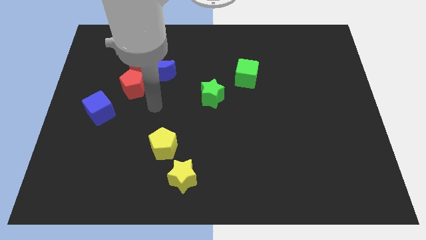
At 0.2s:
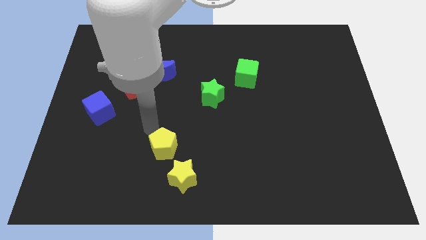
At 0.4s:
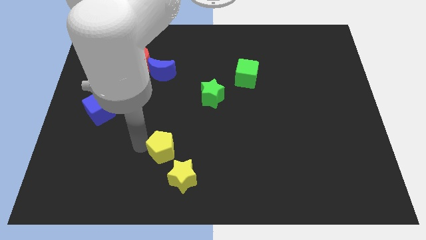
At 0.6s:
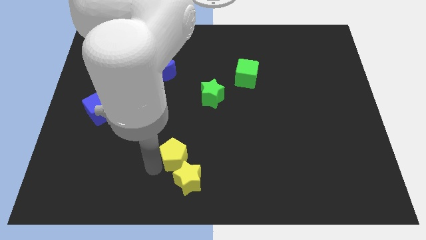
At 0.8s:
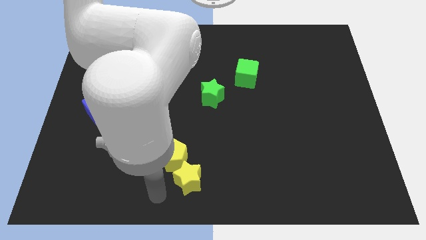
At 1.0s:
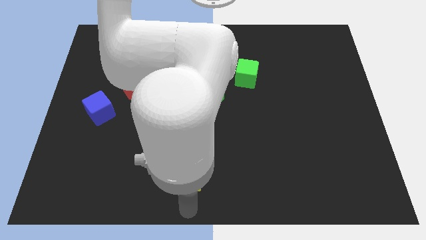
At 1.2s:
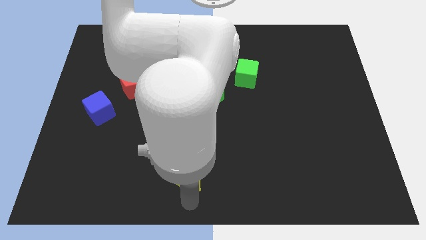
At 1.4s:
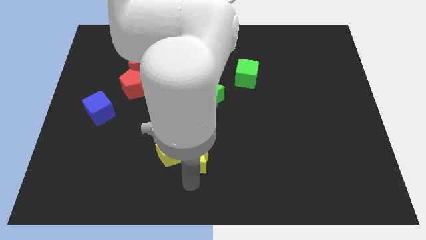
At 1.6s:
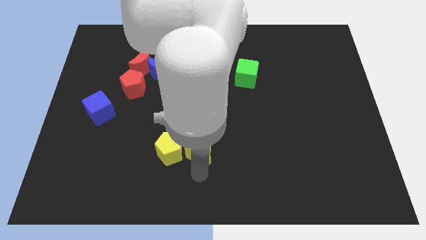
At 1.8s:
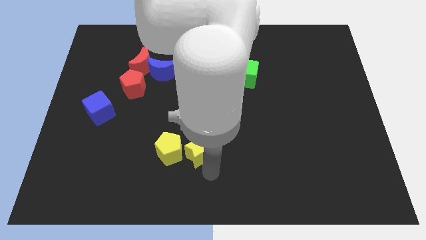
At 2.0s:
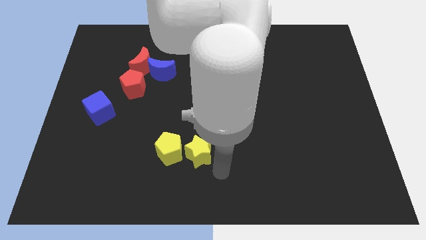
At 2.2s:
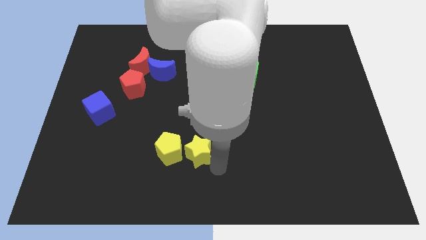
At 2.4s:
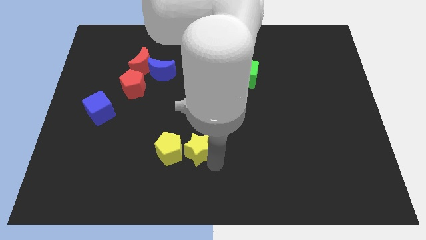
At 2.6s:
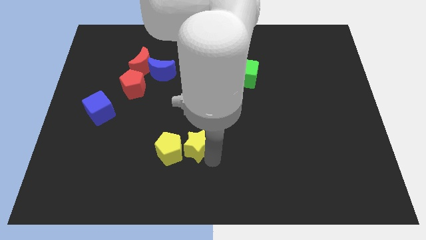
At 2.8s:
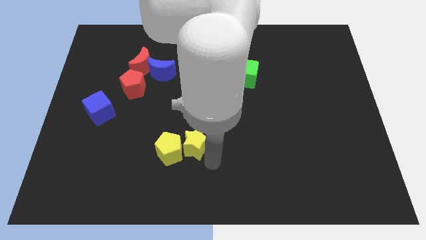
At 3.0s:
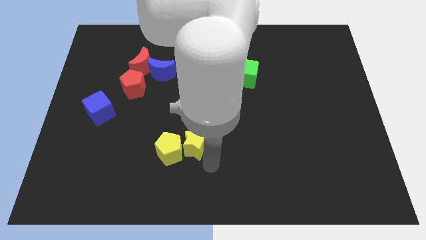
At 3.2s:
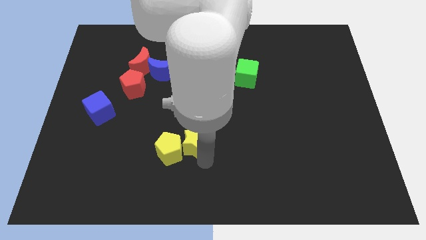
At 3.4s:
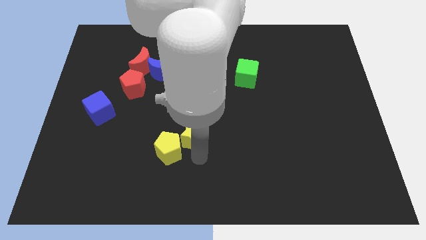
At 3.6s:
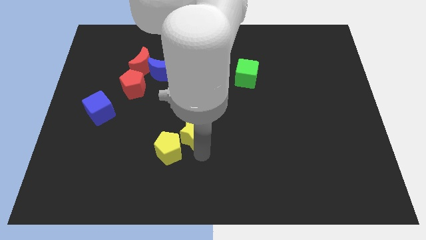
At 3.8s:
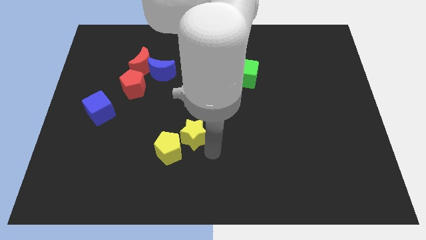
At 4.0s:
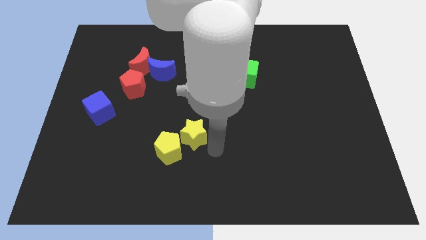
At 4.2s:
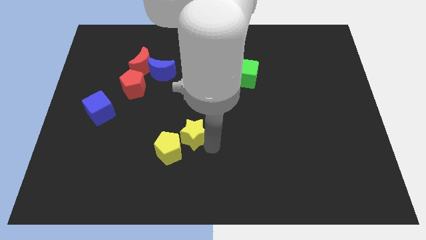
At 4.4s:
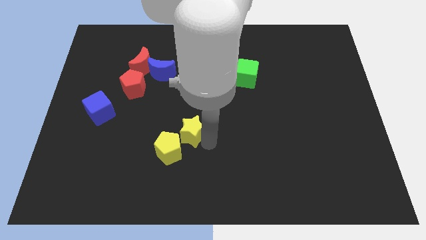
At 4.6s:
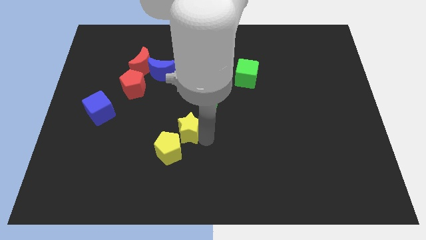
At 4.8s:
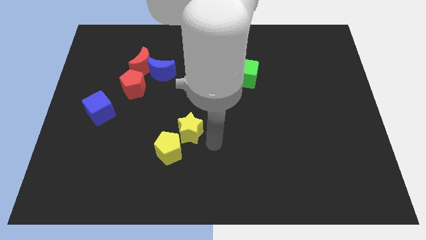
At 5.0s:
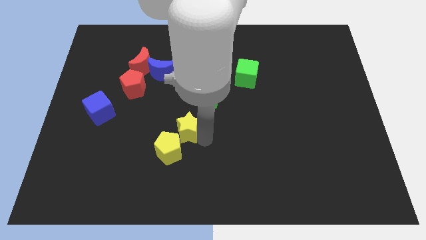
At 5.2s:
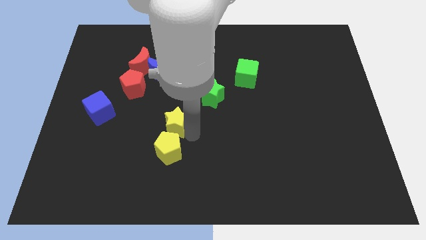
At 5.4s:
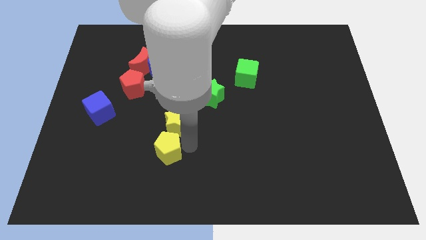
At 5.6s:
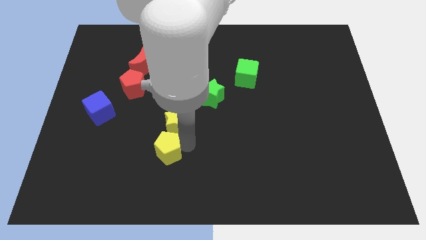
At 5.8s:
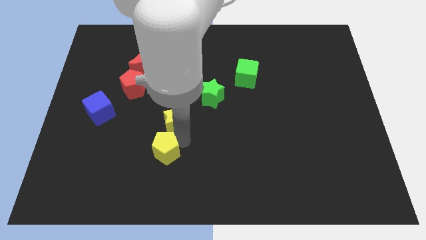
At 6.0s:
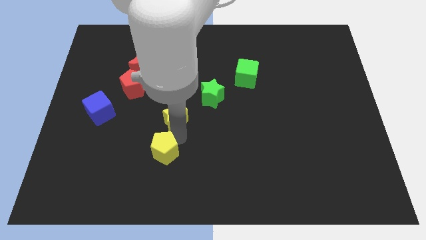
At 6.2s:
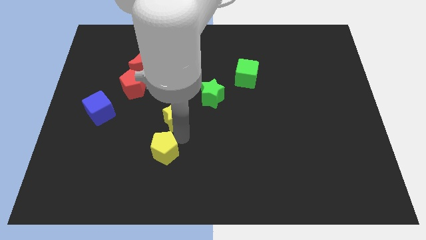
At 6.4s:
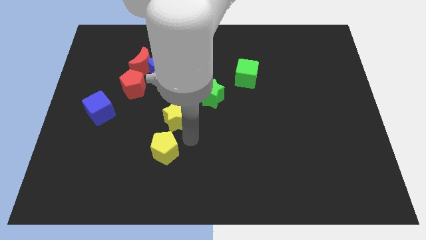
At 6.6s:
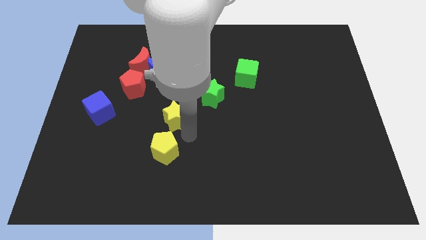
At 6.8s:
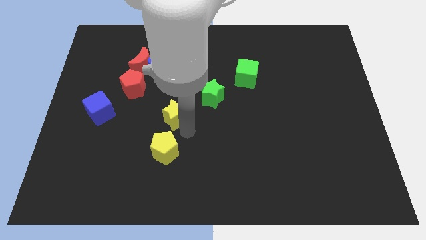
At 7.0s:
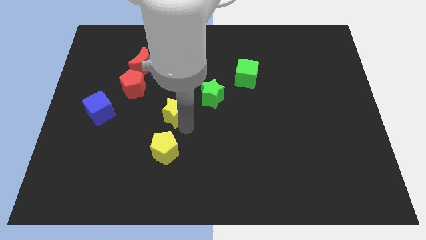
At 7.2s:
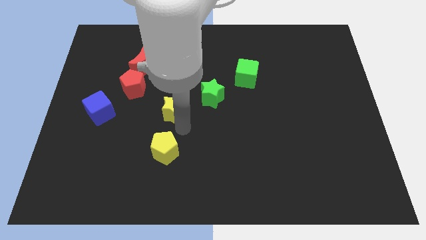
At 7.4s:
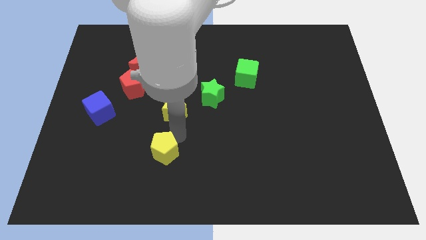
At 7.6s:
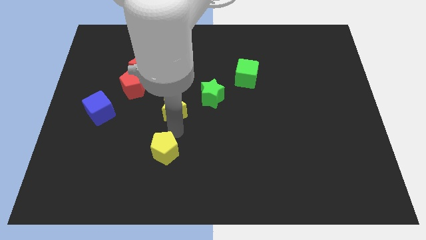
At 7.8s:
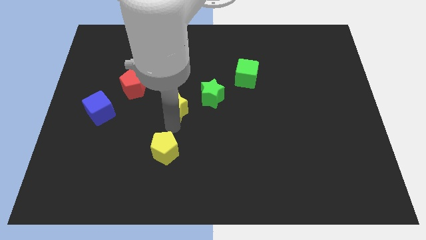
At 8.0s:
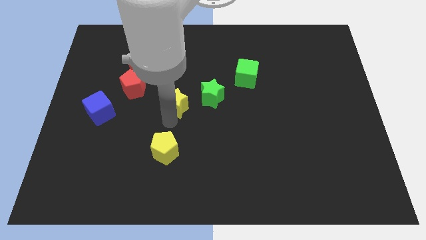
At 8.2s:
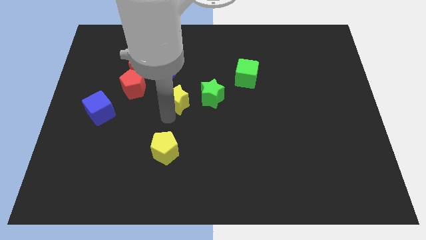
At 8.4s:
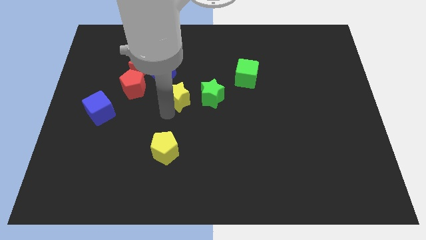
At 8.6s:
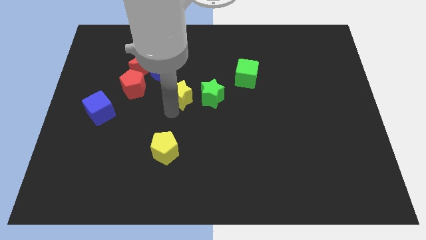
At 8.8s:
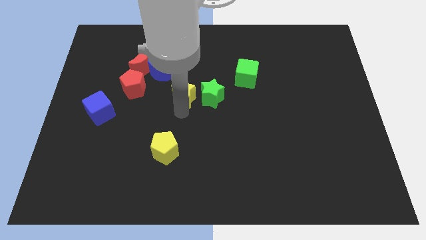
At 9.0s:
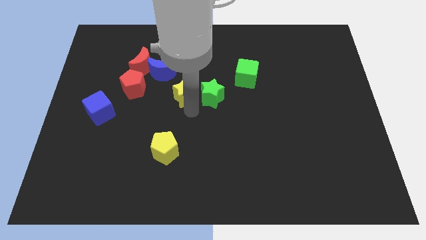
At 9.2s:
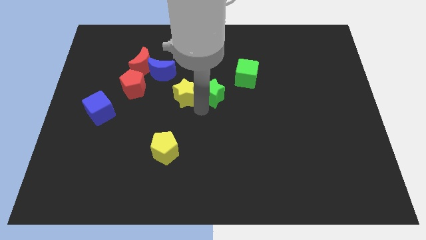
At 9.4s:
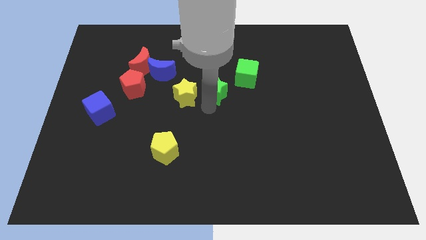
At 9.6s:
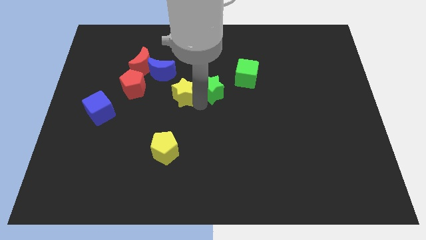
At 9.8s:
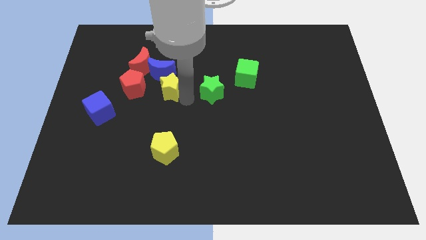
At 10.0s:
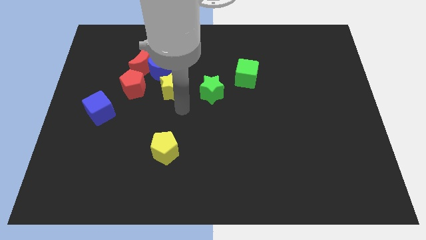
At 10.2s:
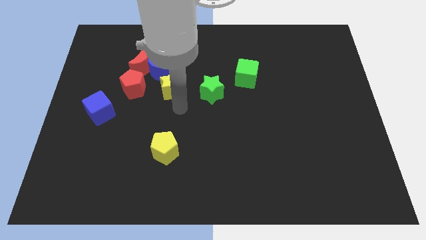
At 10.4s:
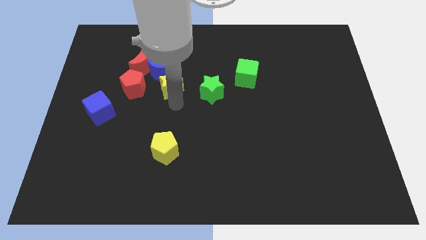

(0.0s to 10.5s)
push the yellow star towards the blue moon

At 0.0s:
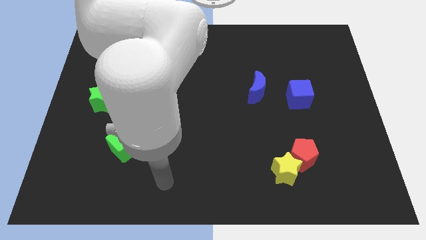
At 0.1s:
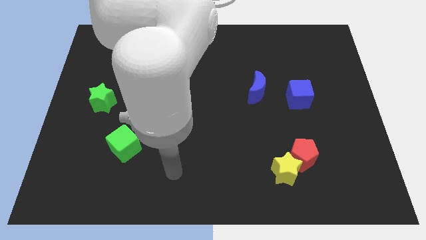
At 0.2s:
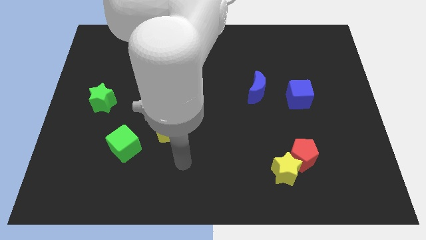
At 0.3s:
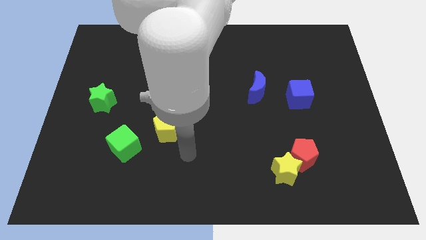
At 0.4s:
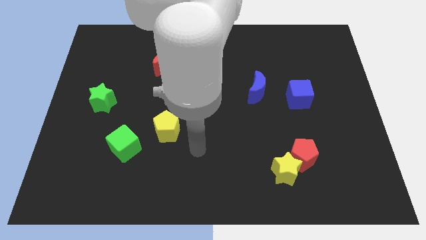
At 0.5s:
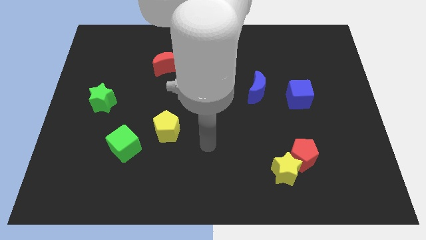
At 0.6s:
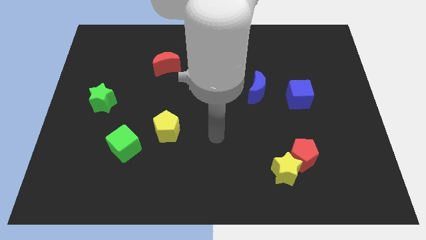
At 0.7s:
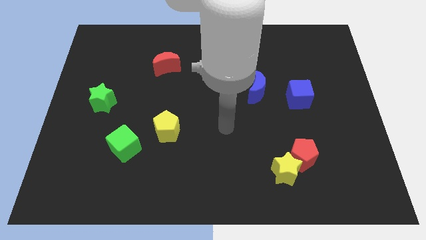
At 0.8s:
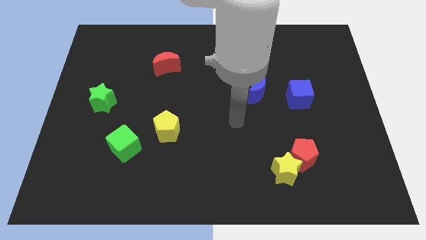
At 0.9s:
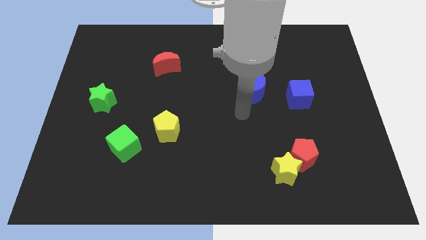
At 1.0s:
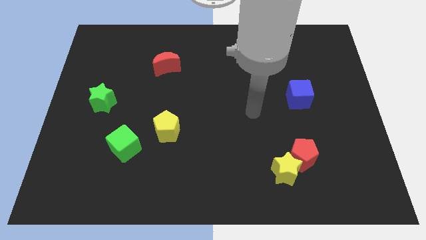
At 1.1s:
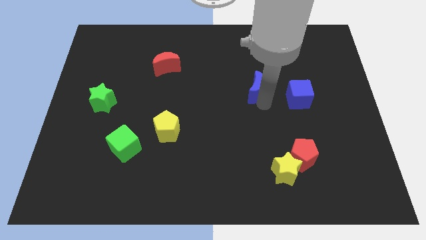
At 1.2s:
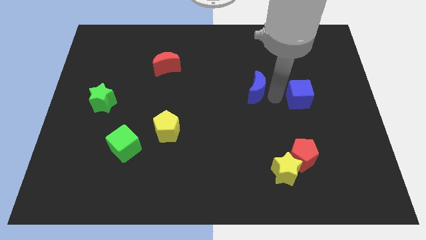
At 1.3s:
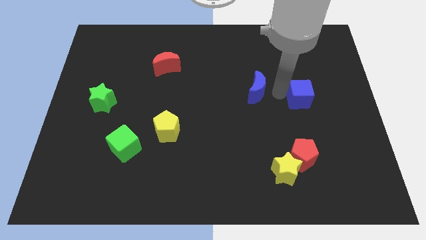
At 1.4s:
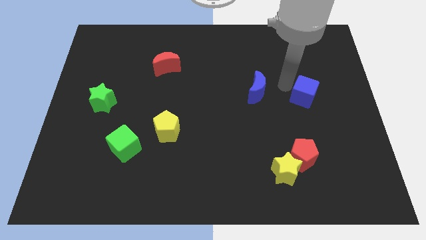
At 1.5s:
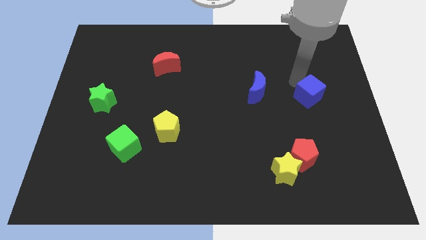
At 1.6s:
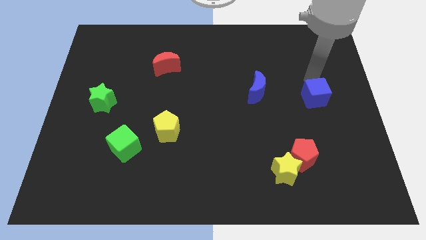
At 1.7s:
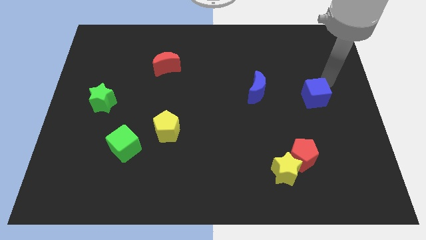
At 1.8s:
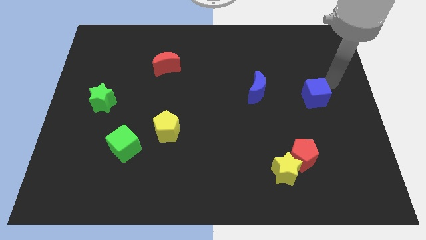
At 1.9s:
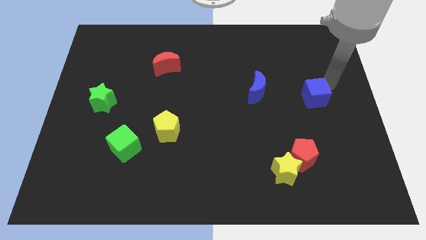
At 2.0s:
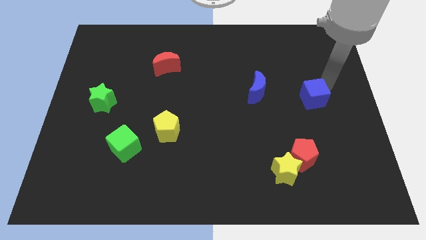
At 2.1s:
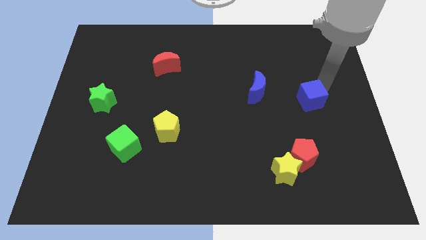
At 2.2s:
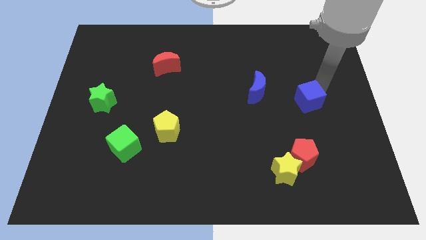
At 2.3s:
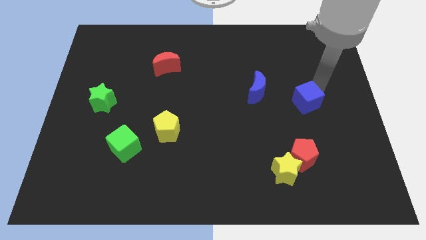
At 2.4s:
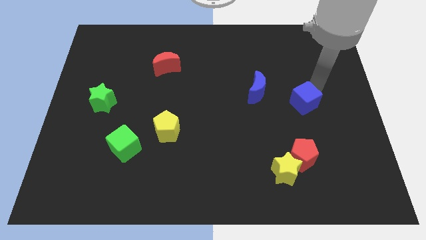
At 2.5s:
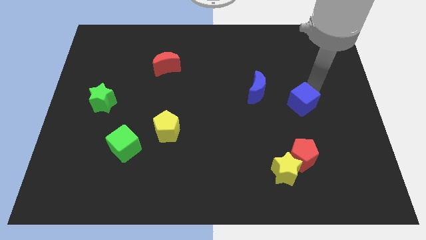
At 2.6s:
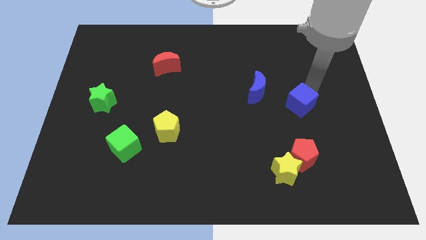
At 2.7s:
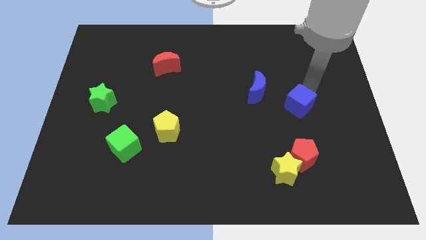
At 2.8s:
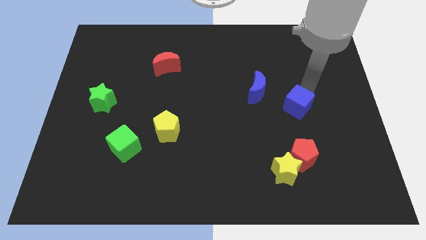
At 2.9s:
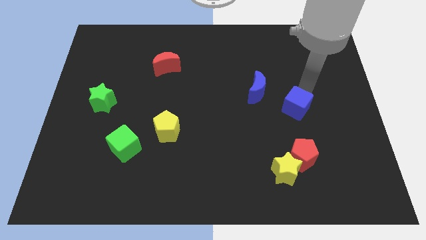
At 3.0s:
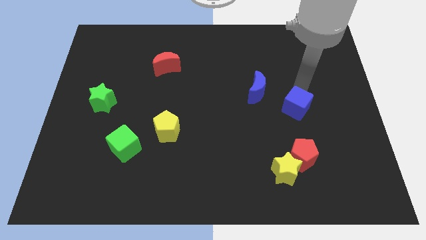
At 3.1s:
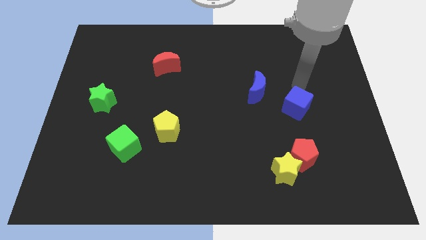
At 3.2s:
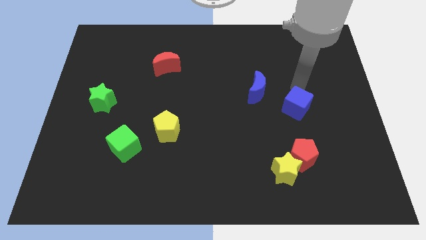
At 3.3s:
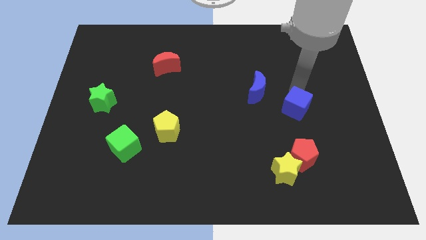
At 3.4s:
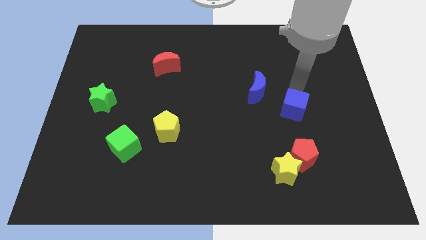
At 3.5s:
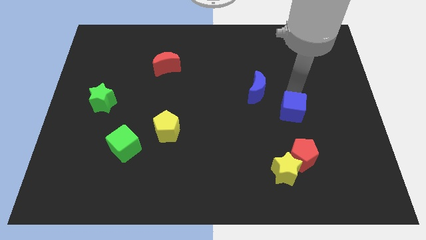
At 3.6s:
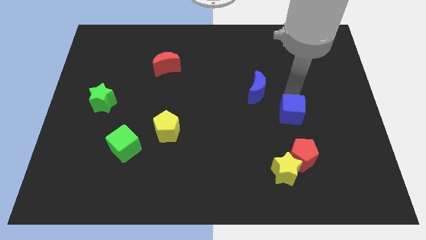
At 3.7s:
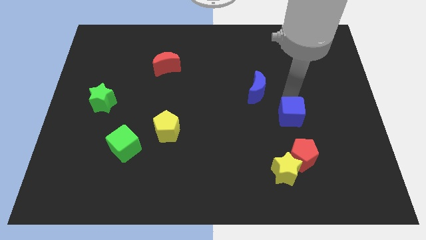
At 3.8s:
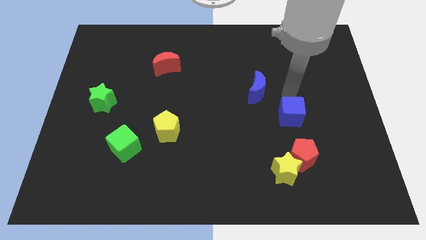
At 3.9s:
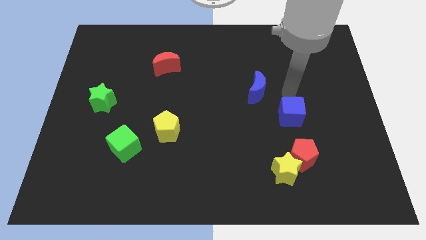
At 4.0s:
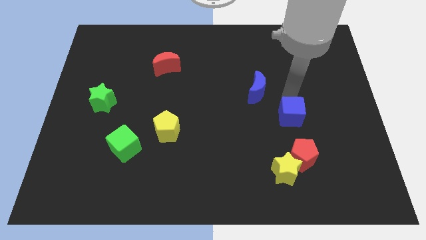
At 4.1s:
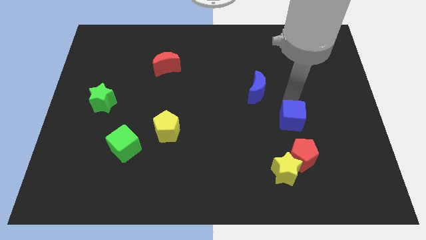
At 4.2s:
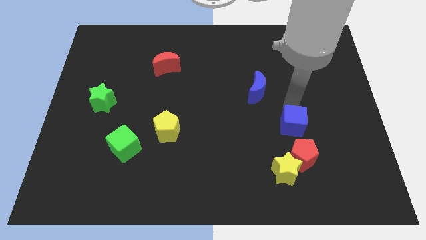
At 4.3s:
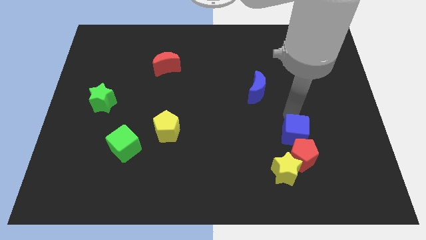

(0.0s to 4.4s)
slide the blue cube to the red pentagon
